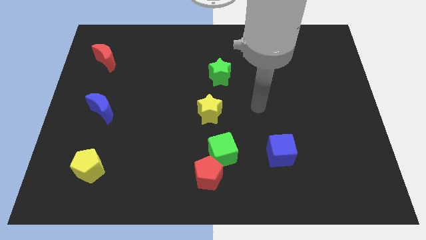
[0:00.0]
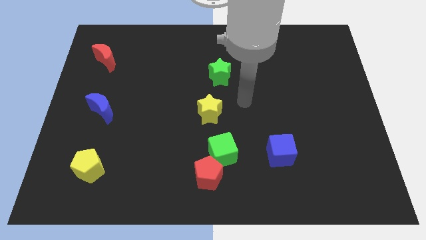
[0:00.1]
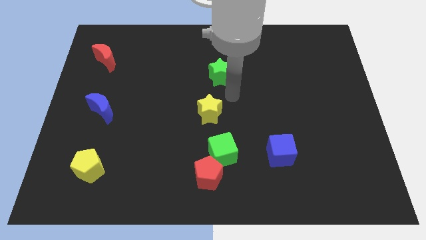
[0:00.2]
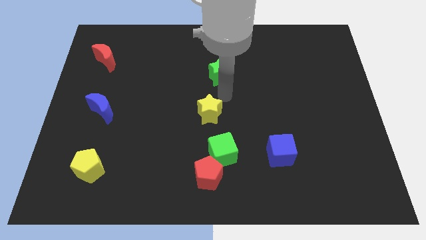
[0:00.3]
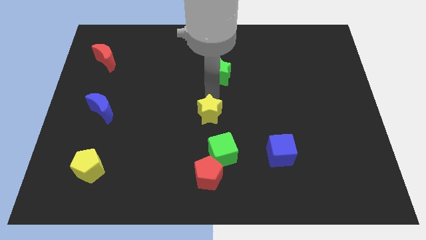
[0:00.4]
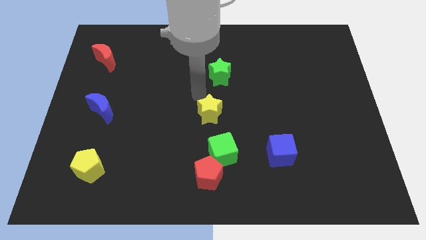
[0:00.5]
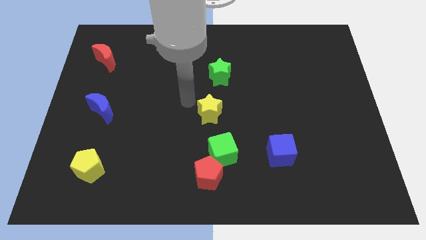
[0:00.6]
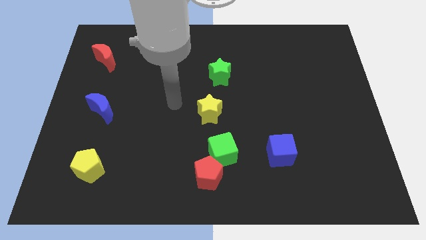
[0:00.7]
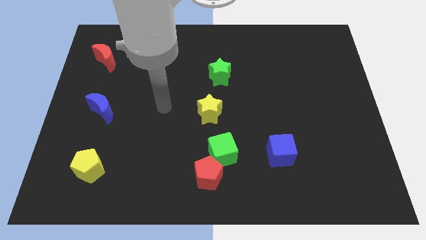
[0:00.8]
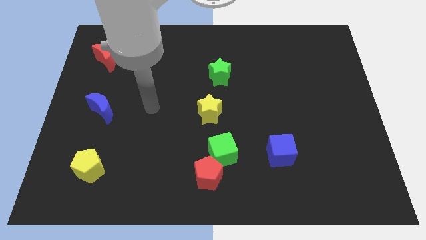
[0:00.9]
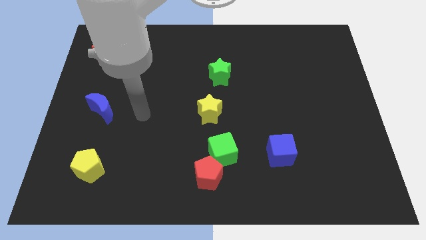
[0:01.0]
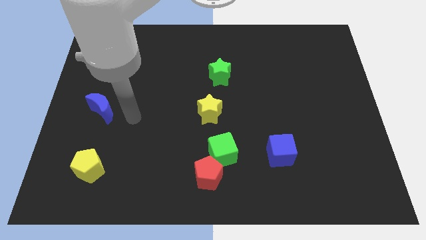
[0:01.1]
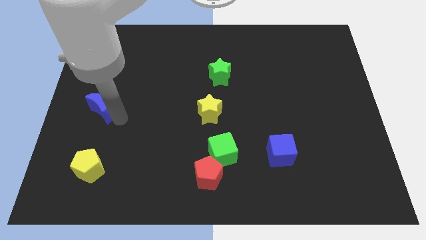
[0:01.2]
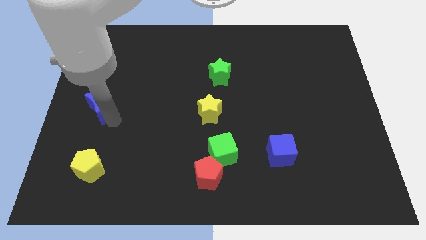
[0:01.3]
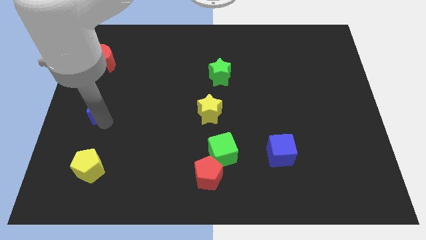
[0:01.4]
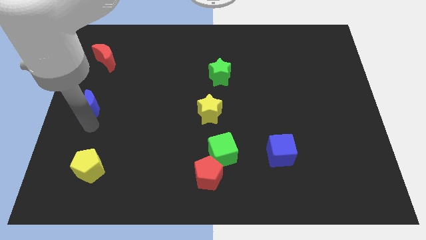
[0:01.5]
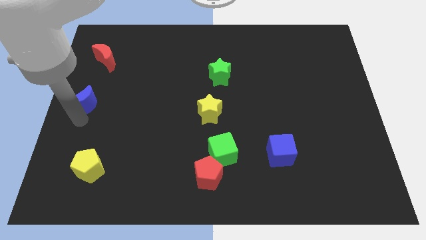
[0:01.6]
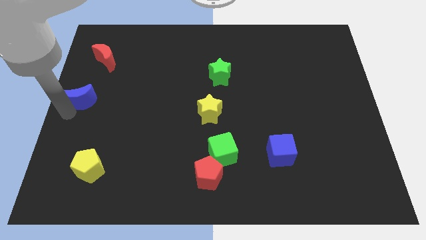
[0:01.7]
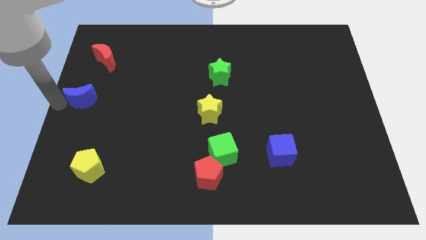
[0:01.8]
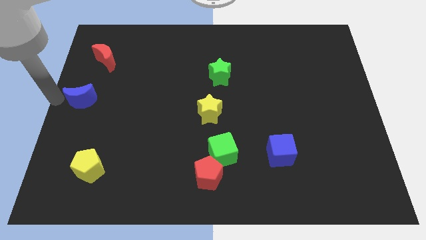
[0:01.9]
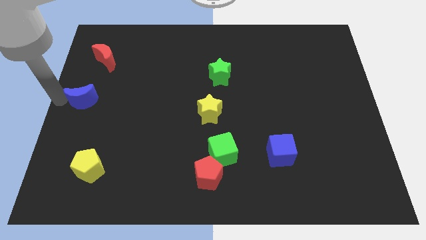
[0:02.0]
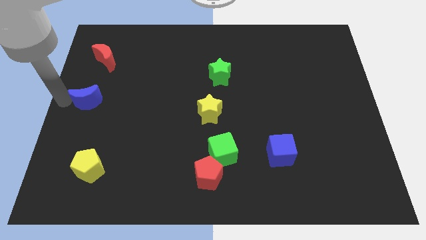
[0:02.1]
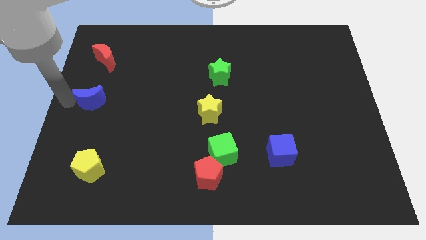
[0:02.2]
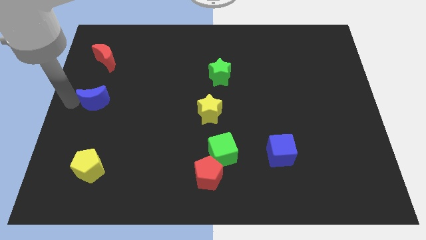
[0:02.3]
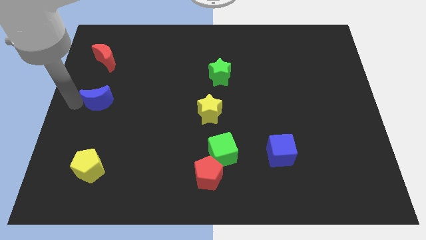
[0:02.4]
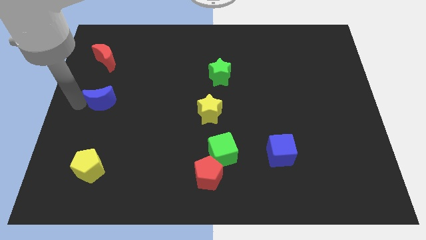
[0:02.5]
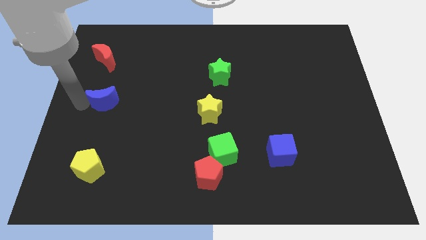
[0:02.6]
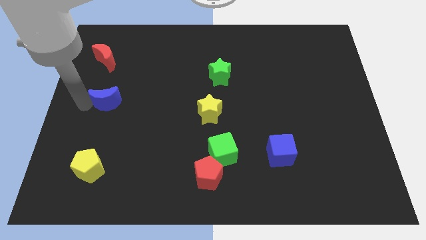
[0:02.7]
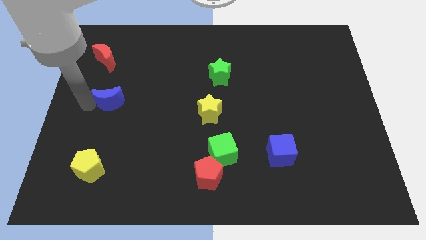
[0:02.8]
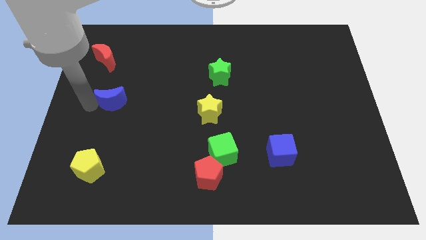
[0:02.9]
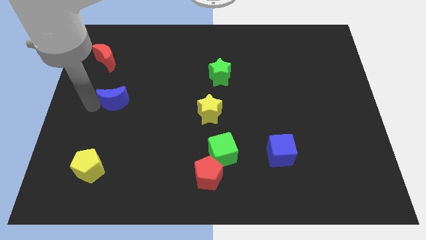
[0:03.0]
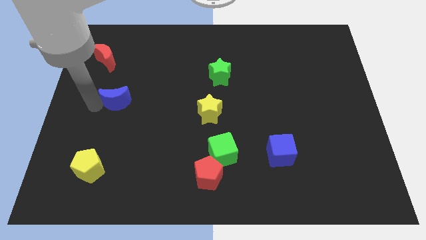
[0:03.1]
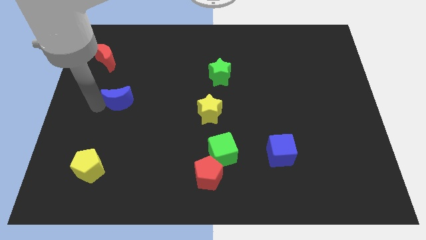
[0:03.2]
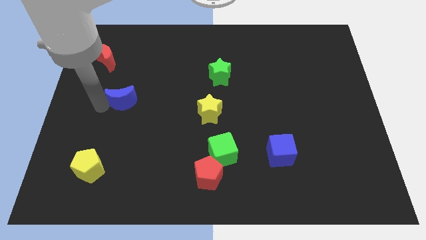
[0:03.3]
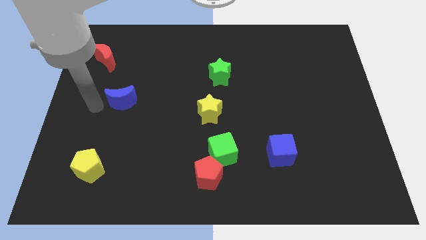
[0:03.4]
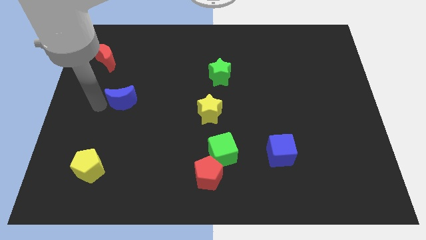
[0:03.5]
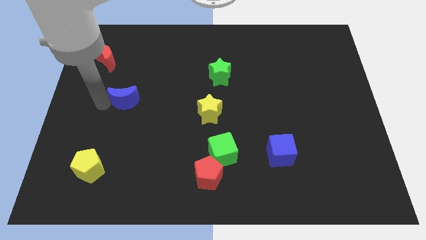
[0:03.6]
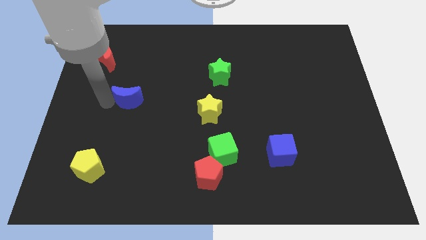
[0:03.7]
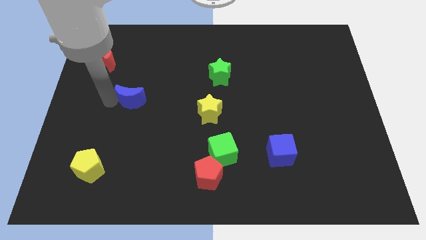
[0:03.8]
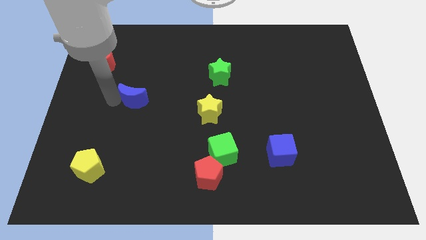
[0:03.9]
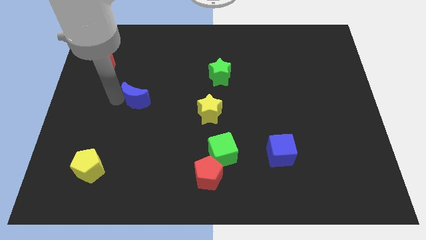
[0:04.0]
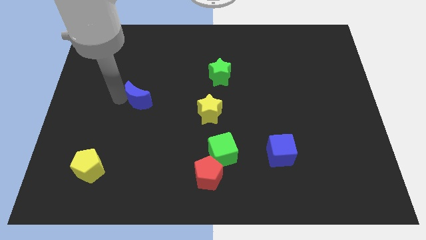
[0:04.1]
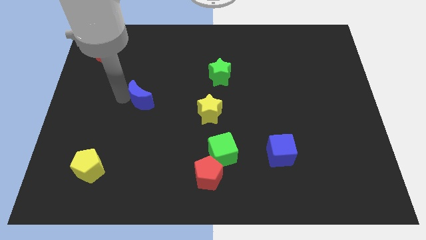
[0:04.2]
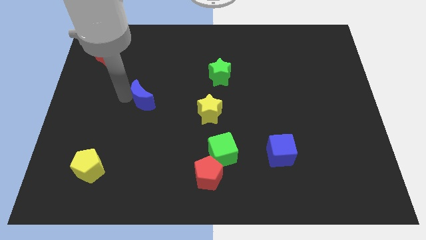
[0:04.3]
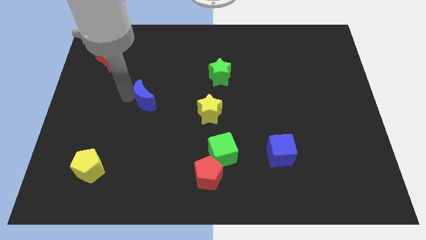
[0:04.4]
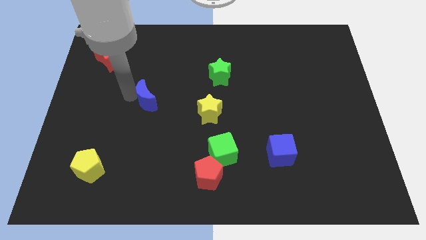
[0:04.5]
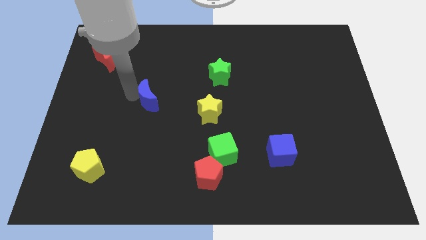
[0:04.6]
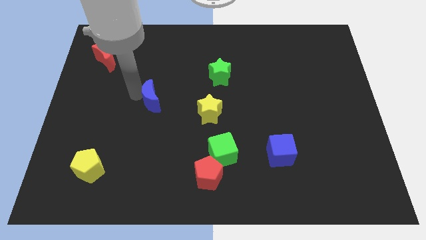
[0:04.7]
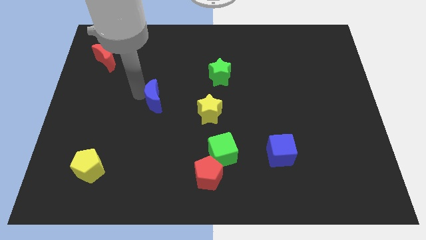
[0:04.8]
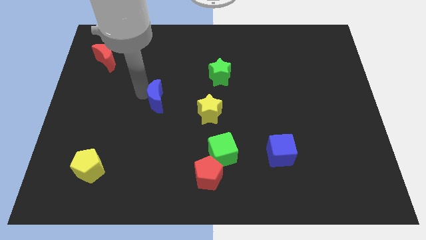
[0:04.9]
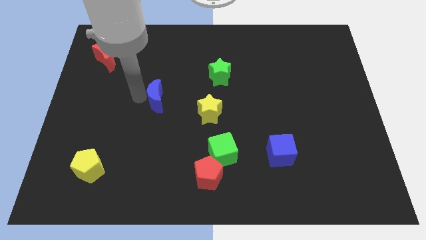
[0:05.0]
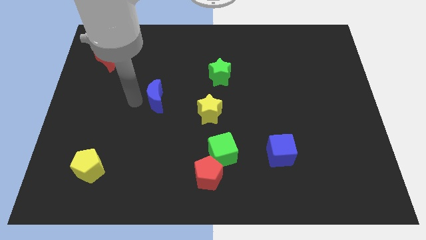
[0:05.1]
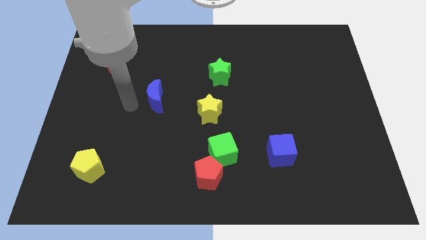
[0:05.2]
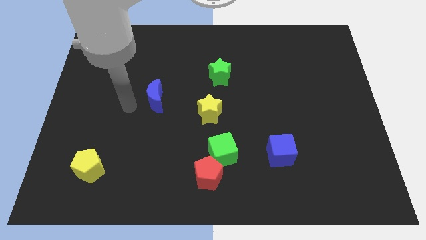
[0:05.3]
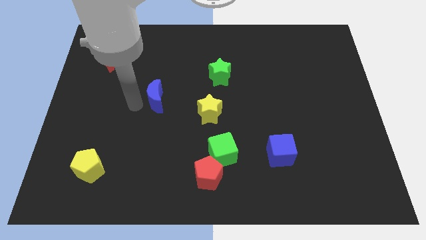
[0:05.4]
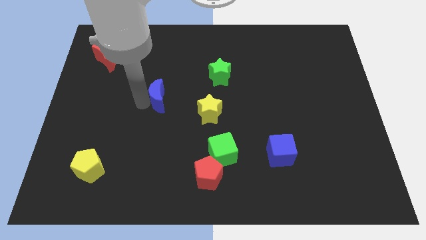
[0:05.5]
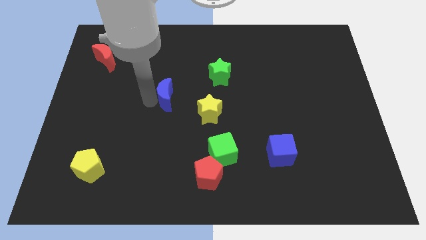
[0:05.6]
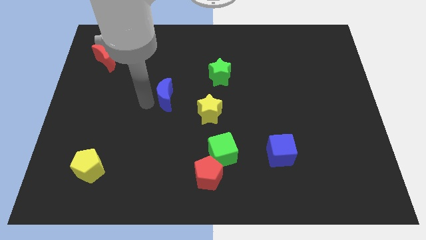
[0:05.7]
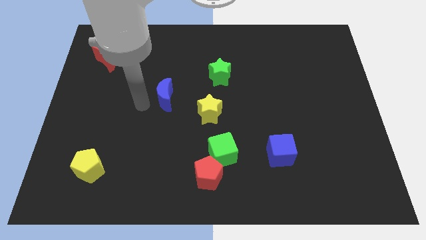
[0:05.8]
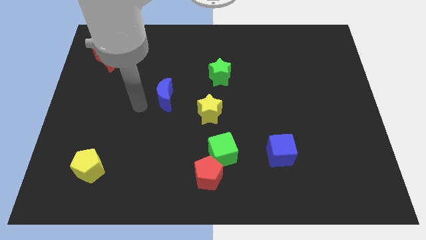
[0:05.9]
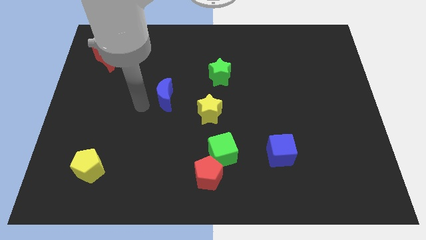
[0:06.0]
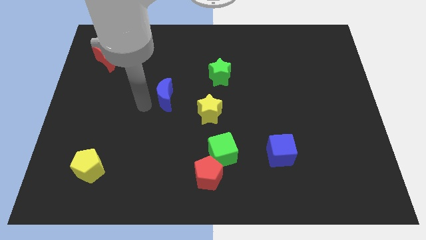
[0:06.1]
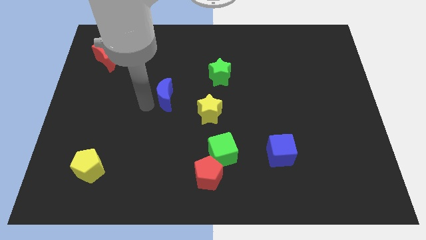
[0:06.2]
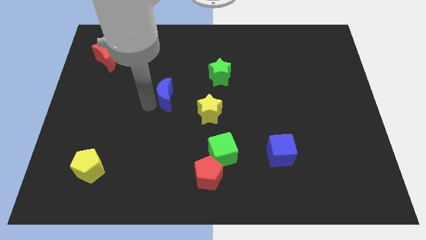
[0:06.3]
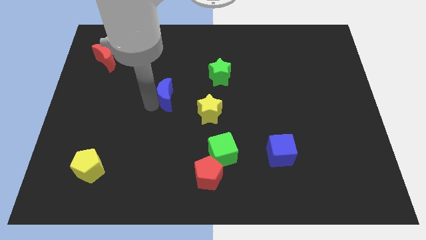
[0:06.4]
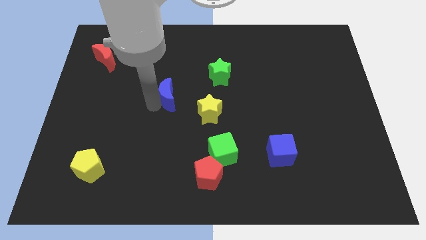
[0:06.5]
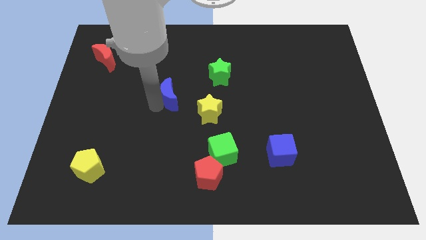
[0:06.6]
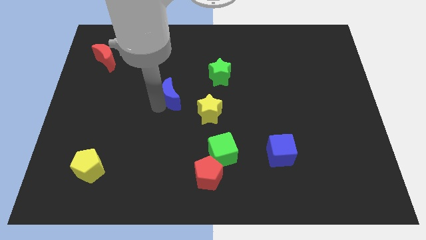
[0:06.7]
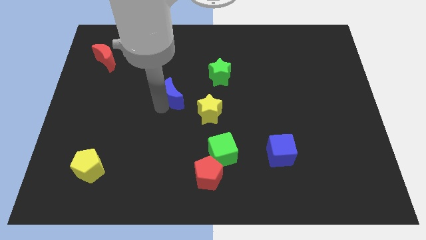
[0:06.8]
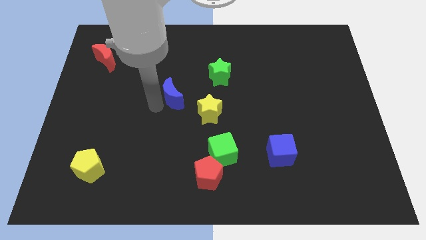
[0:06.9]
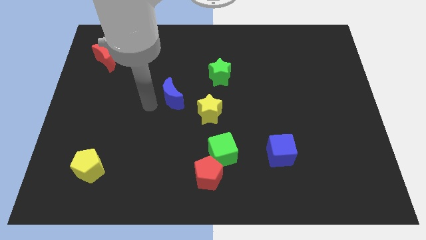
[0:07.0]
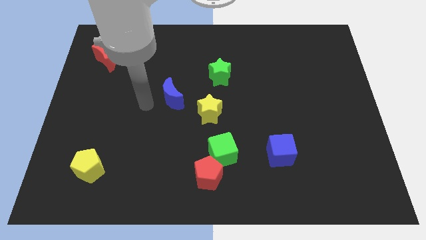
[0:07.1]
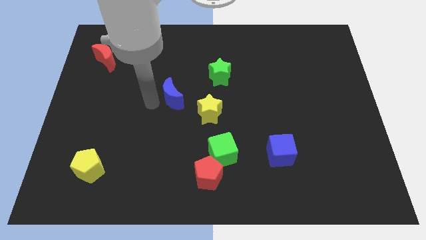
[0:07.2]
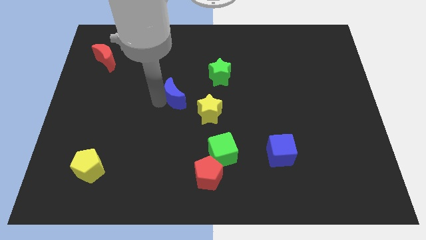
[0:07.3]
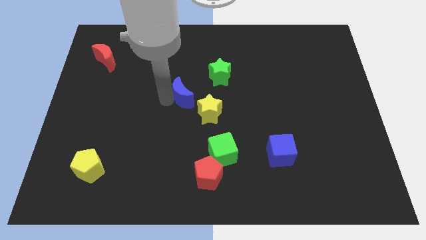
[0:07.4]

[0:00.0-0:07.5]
slide the blue moon to the bottom left side of the green star
